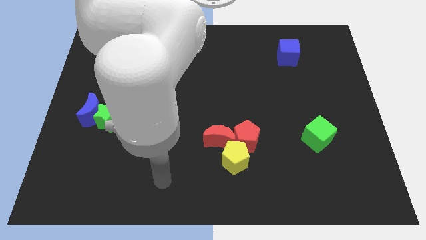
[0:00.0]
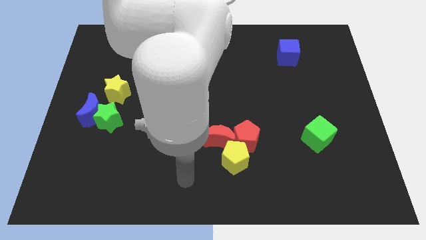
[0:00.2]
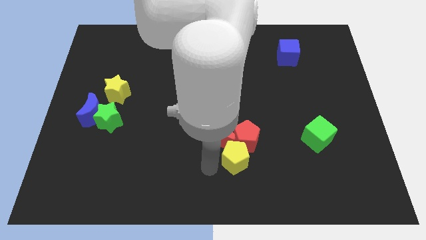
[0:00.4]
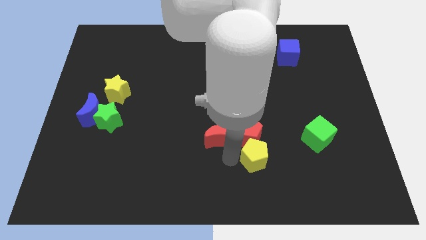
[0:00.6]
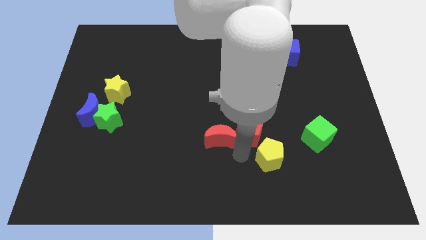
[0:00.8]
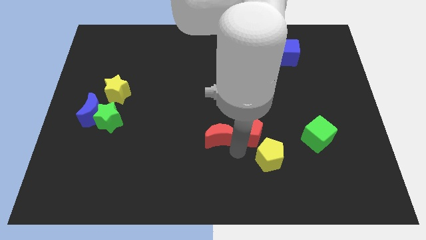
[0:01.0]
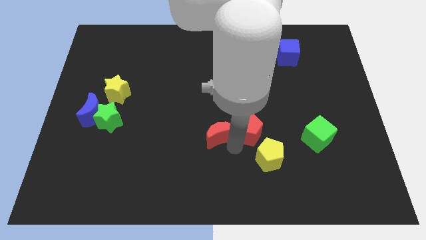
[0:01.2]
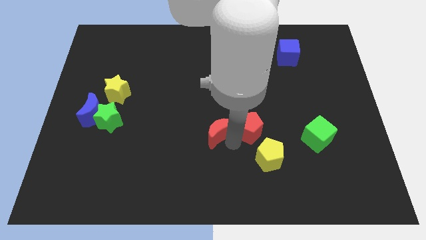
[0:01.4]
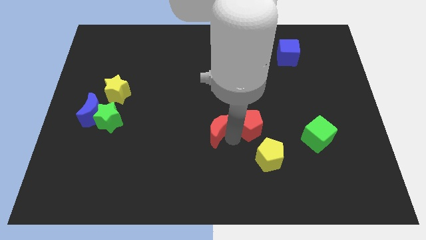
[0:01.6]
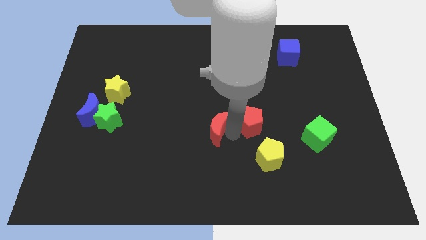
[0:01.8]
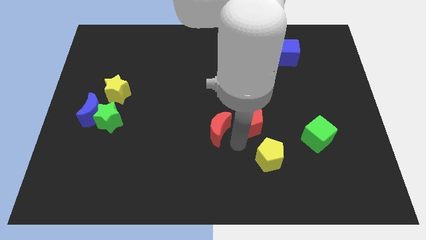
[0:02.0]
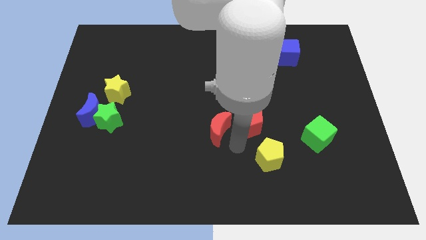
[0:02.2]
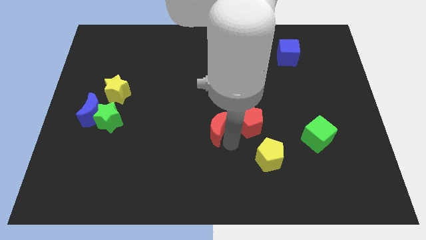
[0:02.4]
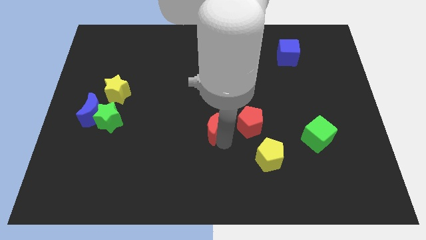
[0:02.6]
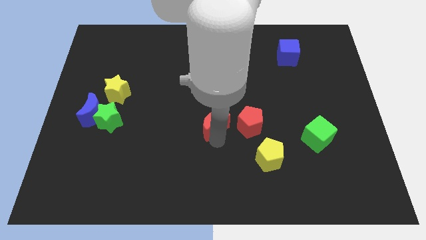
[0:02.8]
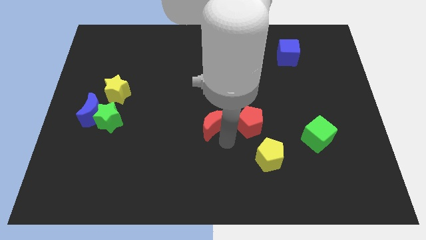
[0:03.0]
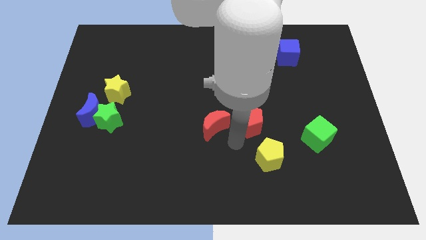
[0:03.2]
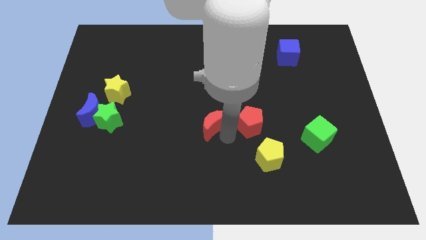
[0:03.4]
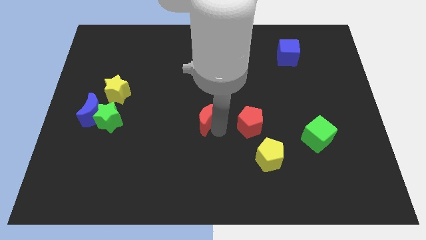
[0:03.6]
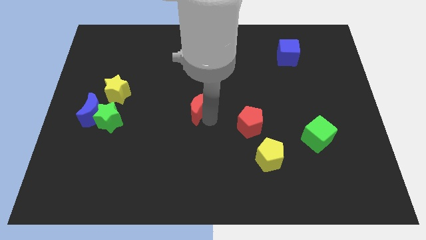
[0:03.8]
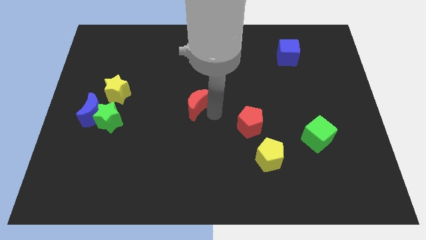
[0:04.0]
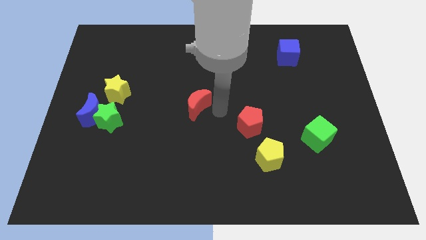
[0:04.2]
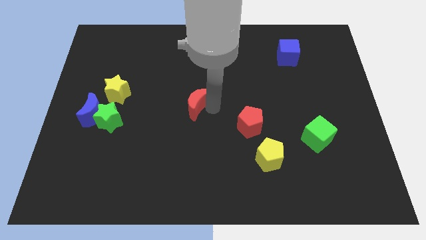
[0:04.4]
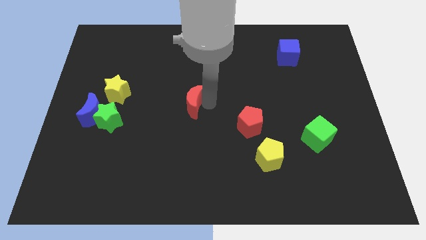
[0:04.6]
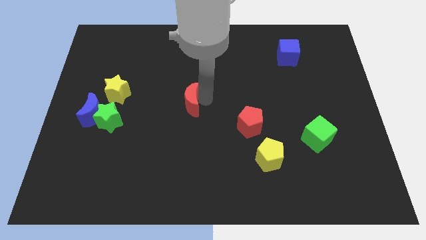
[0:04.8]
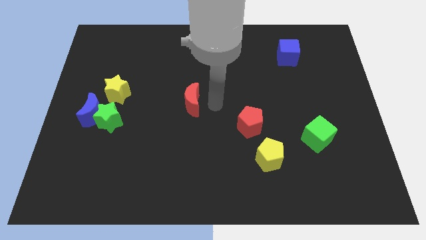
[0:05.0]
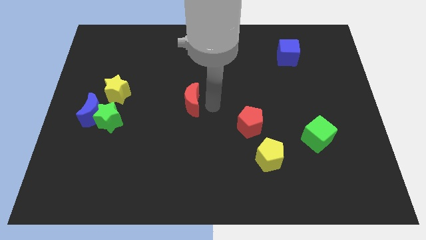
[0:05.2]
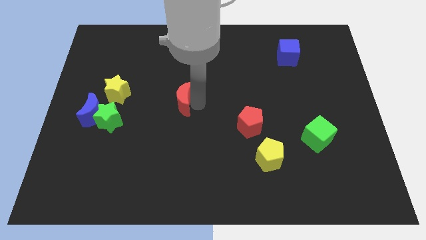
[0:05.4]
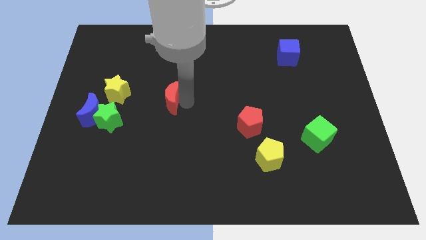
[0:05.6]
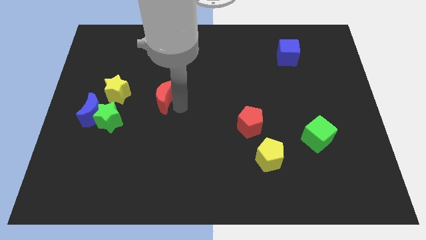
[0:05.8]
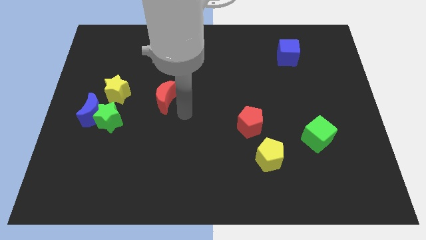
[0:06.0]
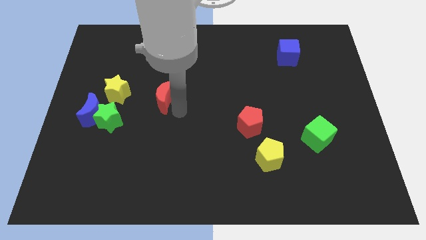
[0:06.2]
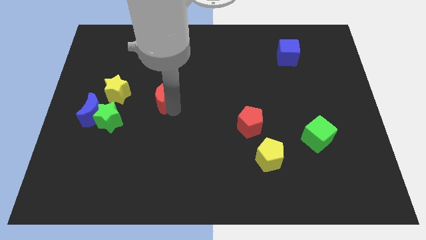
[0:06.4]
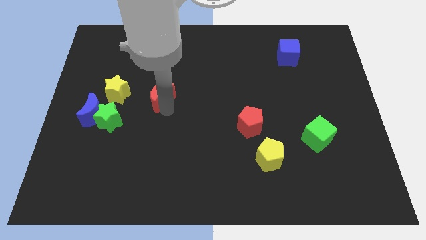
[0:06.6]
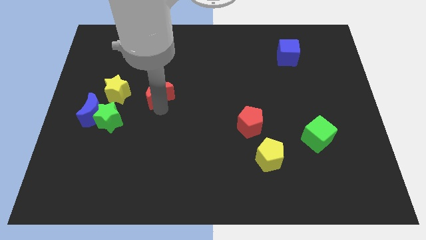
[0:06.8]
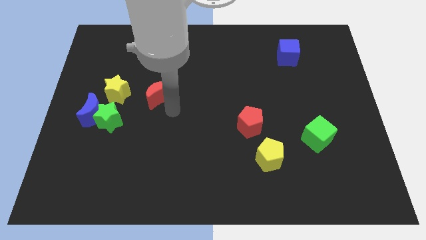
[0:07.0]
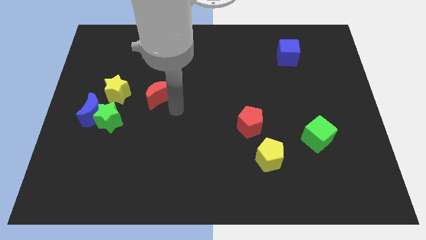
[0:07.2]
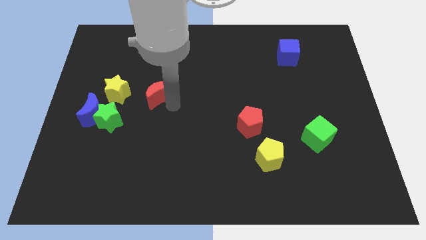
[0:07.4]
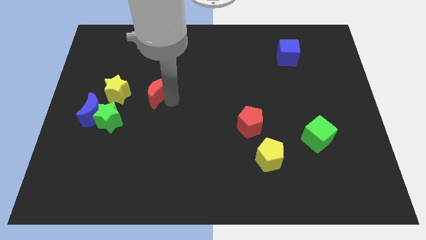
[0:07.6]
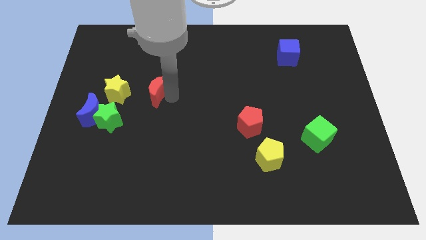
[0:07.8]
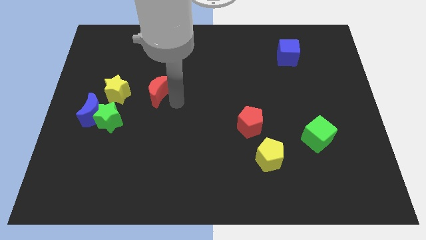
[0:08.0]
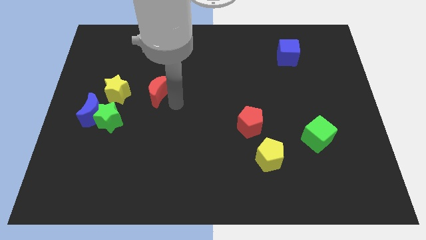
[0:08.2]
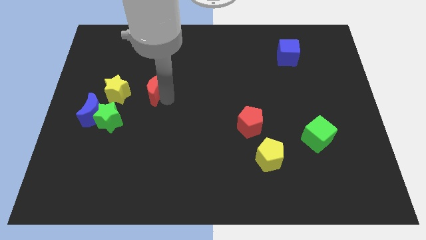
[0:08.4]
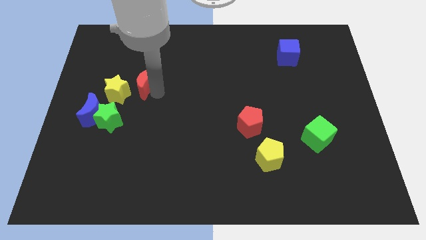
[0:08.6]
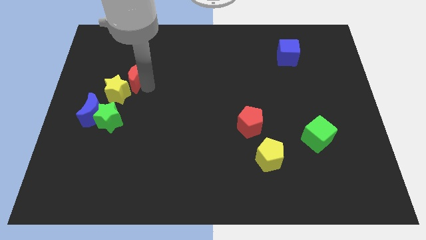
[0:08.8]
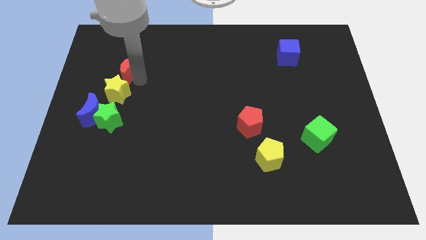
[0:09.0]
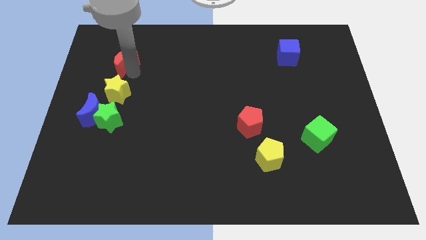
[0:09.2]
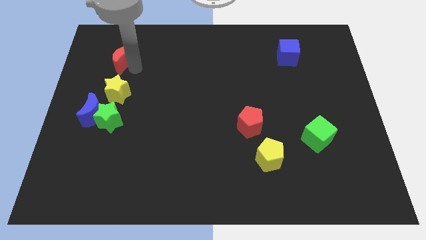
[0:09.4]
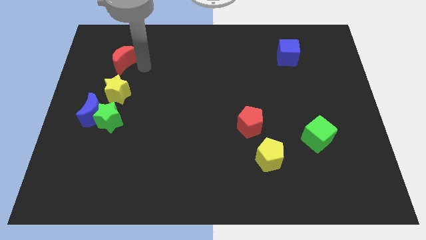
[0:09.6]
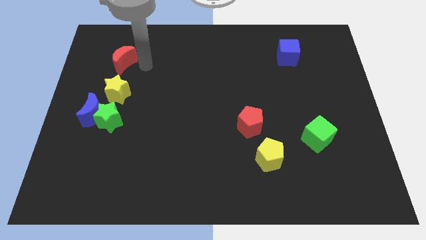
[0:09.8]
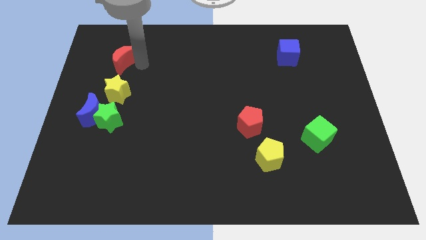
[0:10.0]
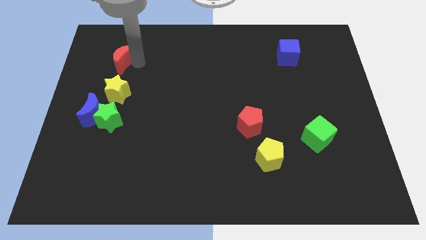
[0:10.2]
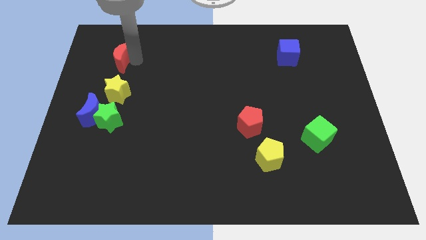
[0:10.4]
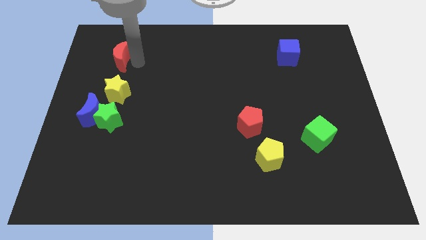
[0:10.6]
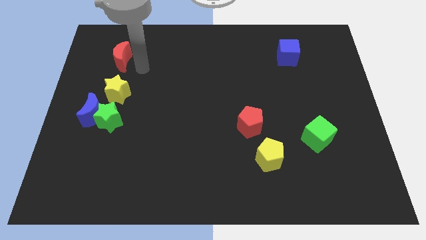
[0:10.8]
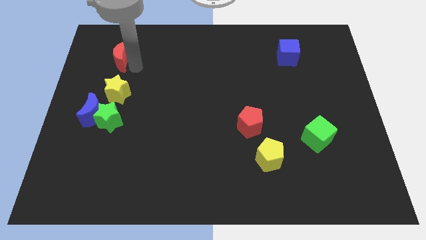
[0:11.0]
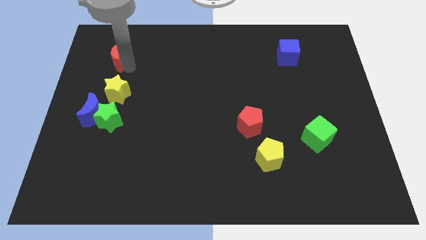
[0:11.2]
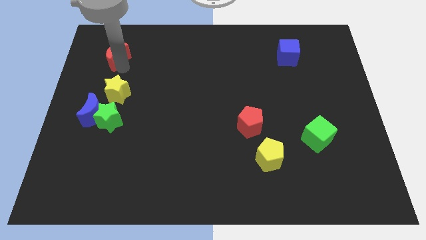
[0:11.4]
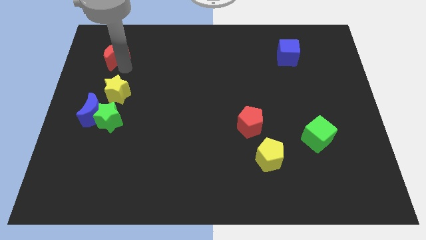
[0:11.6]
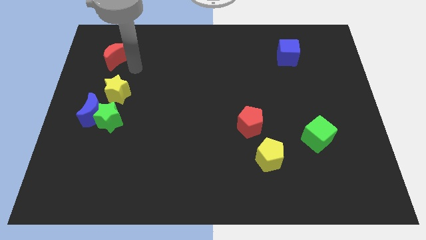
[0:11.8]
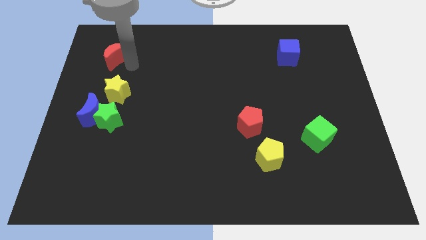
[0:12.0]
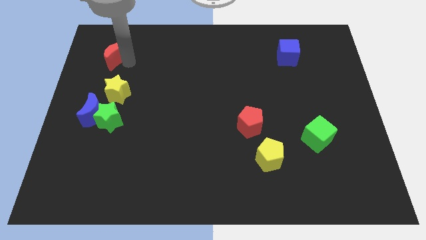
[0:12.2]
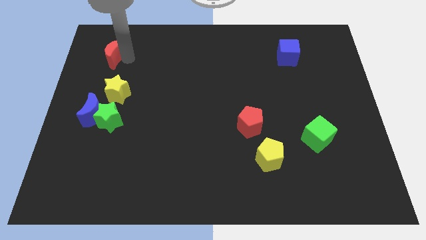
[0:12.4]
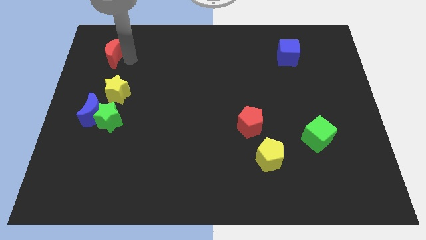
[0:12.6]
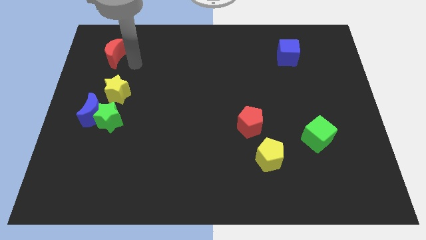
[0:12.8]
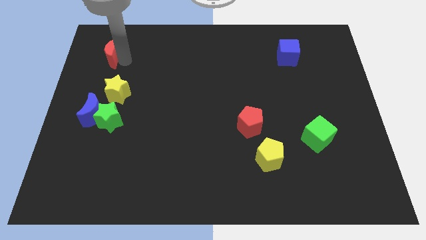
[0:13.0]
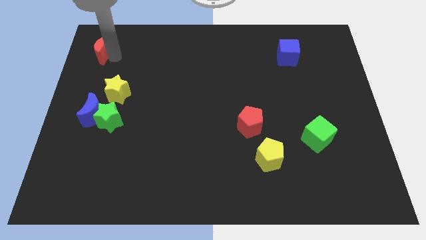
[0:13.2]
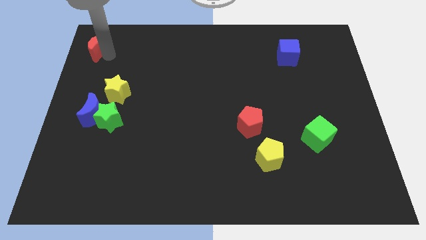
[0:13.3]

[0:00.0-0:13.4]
put the red moon to the top left of the board
